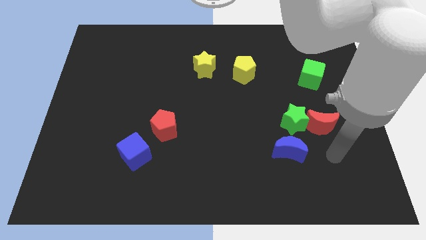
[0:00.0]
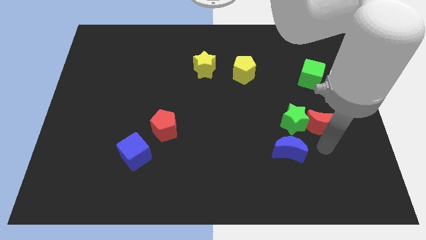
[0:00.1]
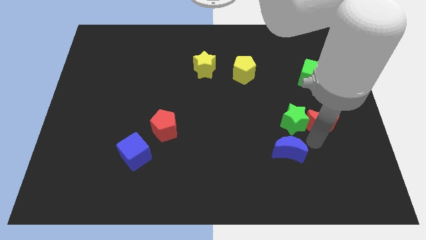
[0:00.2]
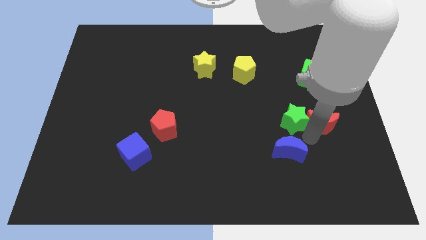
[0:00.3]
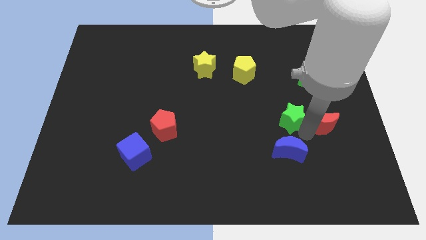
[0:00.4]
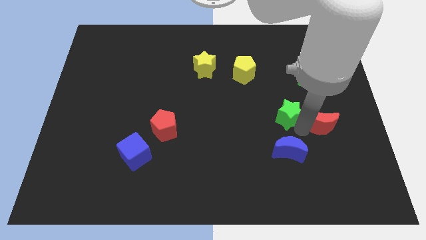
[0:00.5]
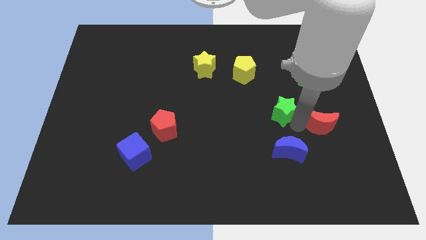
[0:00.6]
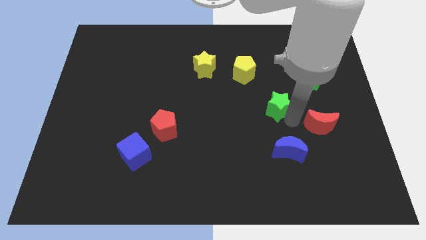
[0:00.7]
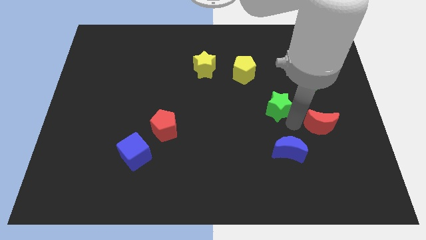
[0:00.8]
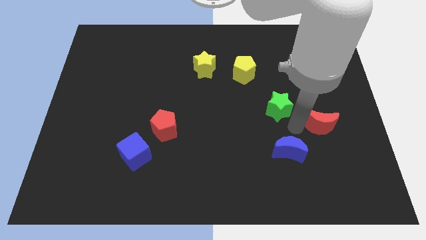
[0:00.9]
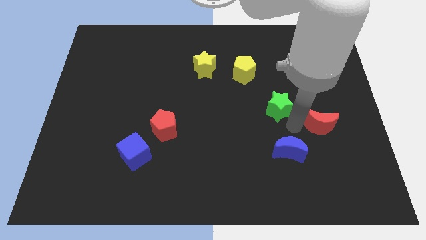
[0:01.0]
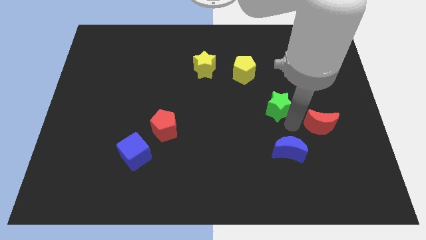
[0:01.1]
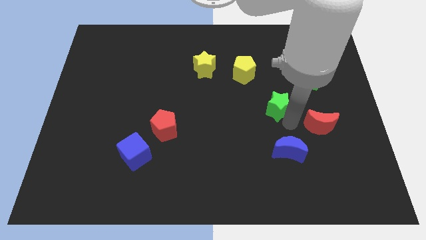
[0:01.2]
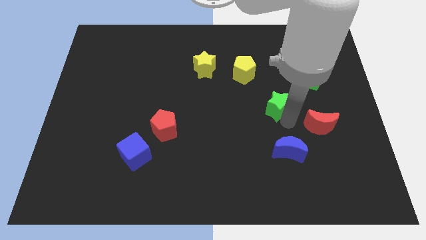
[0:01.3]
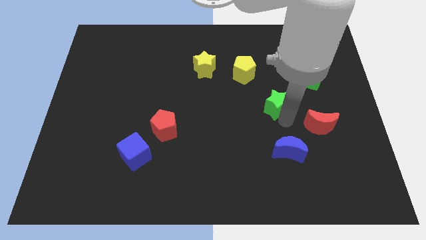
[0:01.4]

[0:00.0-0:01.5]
separate the green star from the red moon and blue moon

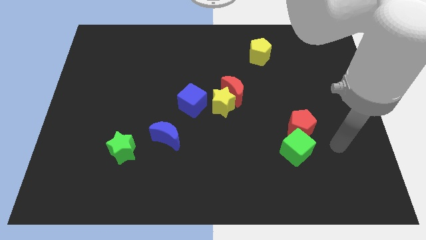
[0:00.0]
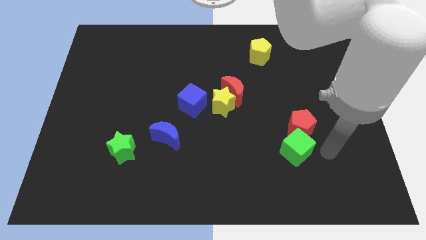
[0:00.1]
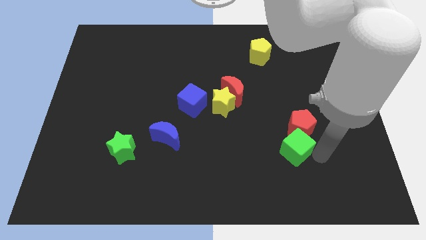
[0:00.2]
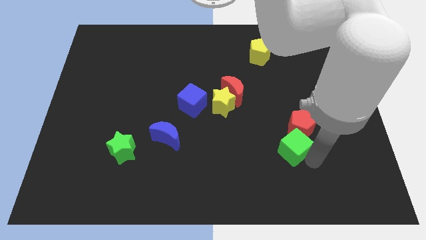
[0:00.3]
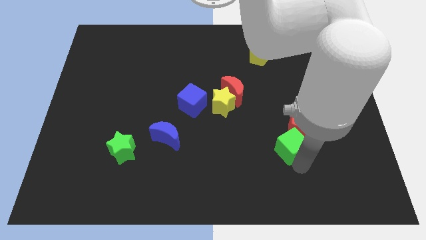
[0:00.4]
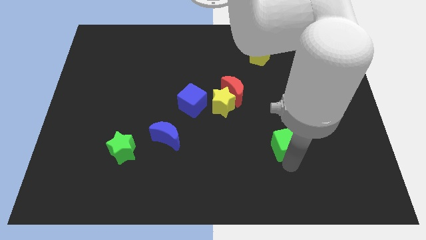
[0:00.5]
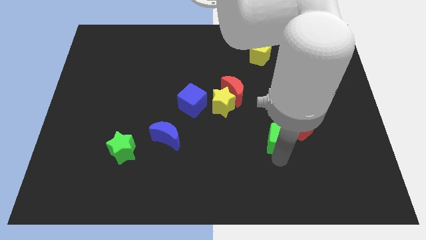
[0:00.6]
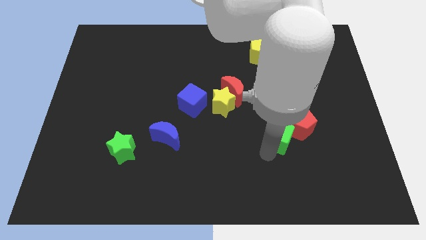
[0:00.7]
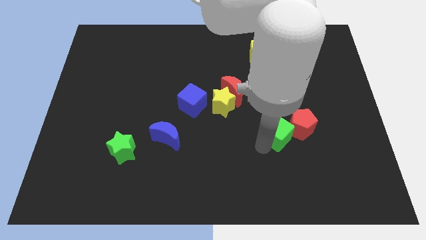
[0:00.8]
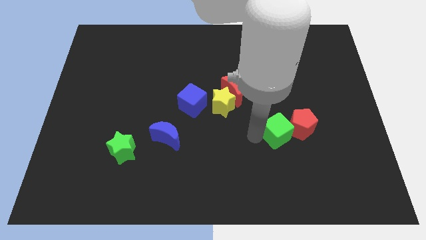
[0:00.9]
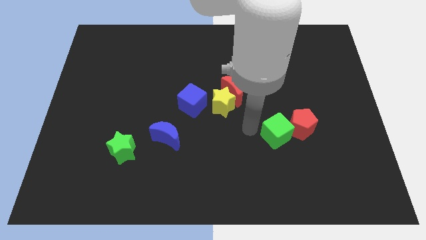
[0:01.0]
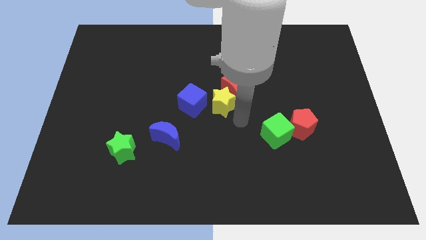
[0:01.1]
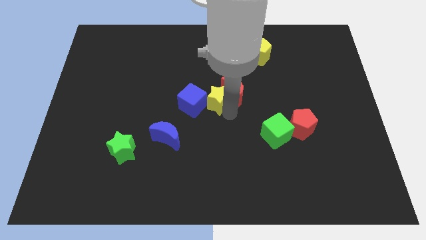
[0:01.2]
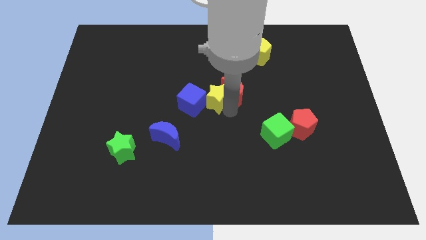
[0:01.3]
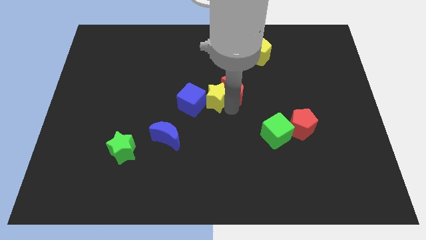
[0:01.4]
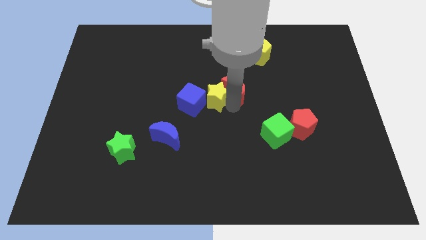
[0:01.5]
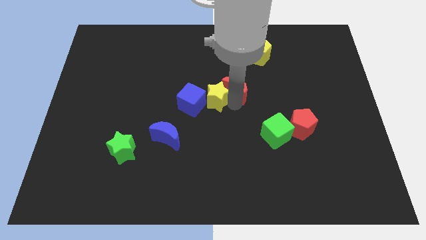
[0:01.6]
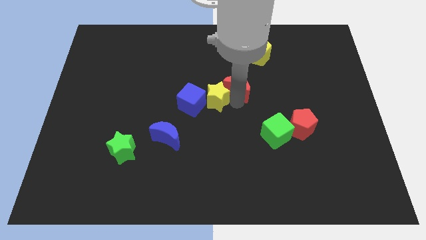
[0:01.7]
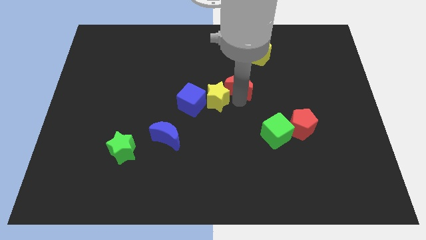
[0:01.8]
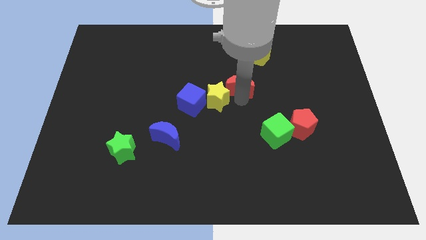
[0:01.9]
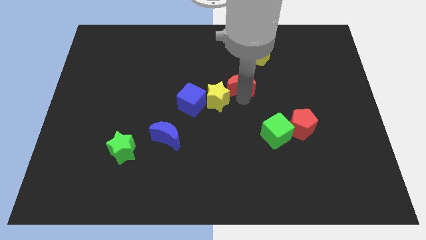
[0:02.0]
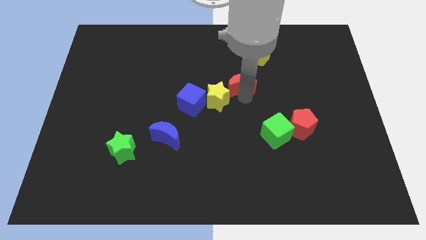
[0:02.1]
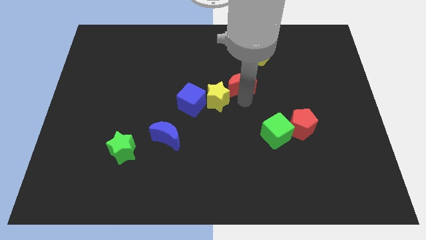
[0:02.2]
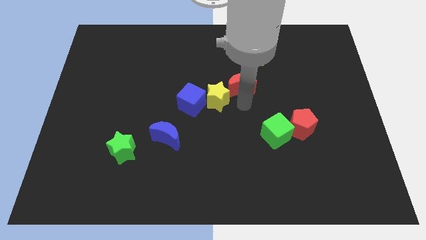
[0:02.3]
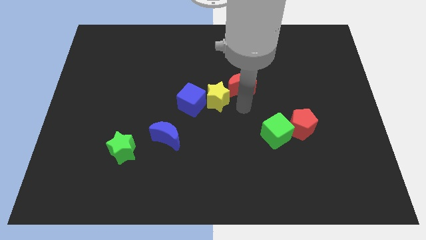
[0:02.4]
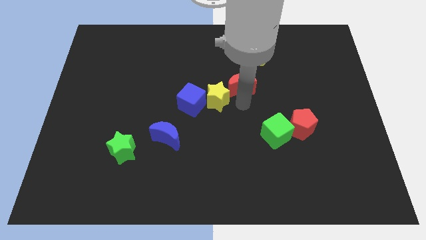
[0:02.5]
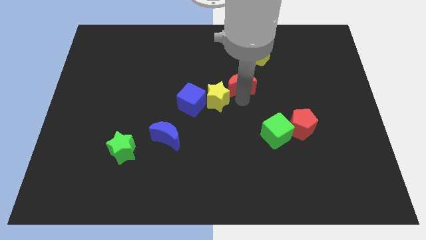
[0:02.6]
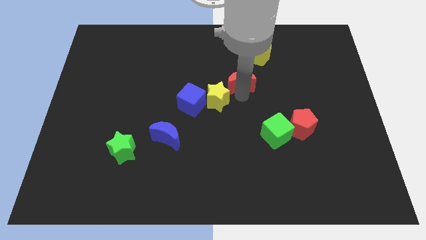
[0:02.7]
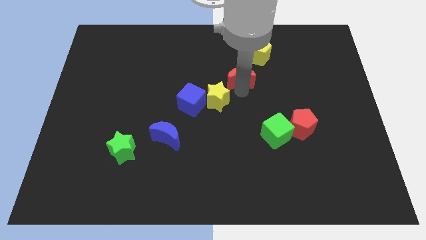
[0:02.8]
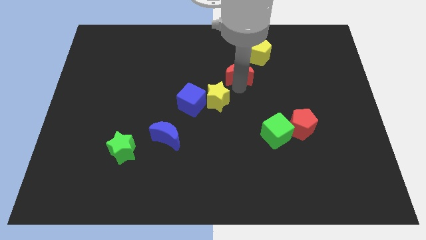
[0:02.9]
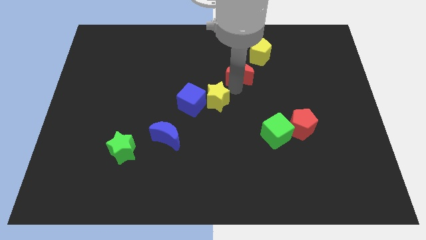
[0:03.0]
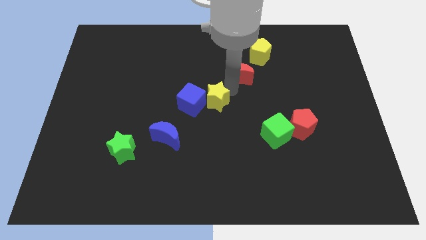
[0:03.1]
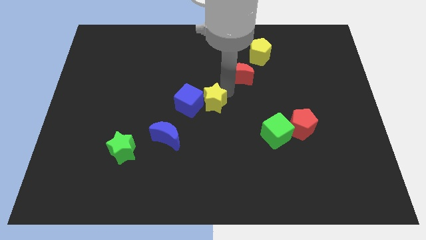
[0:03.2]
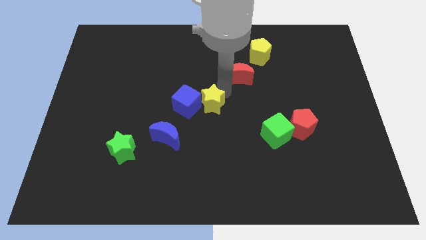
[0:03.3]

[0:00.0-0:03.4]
move the red moon away from the yellow star

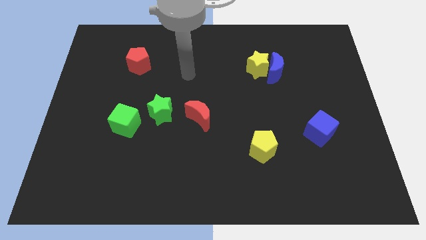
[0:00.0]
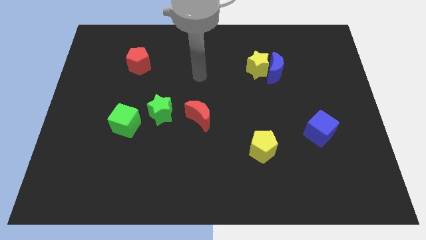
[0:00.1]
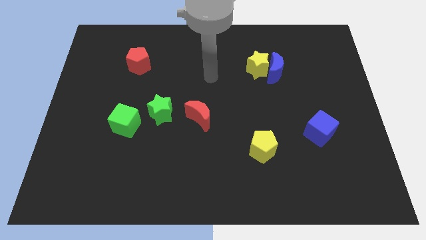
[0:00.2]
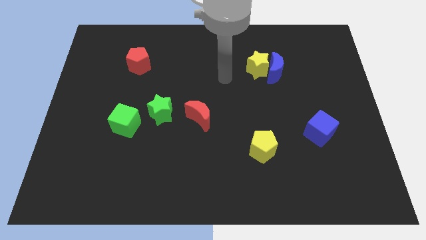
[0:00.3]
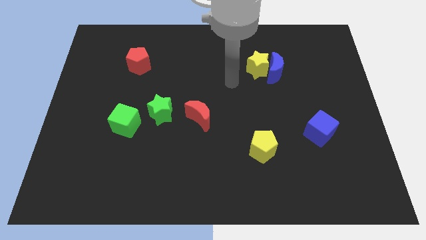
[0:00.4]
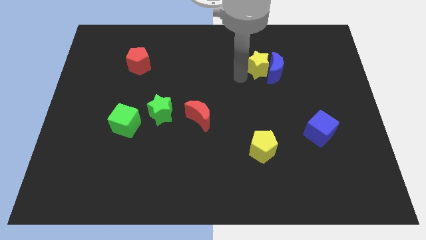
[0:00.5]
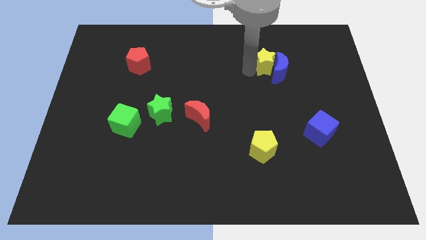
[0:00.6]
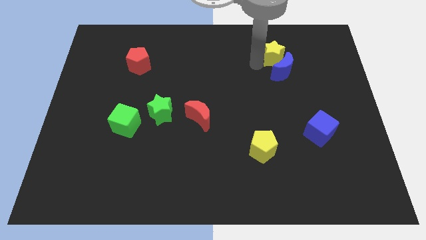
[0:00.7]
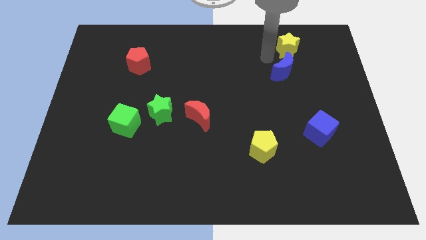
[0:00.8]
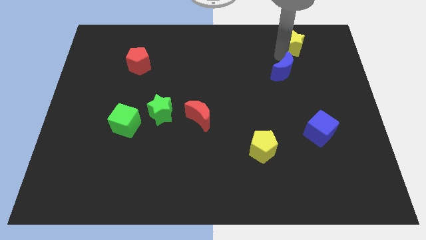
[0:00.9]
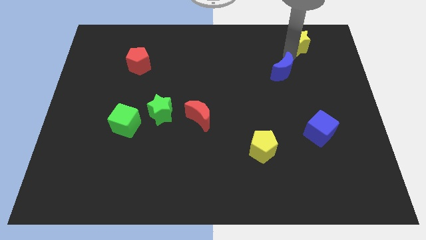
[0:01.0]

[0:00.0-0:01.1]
move the blue moon away from the yellow star

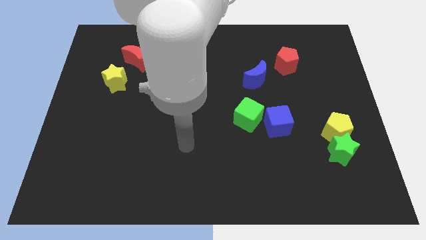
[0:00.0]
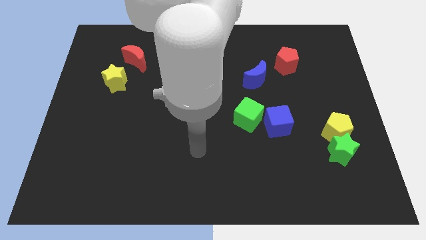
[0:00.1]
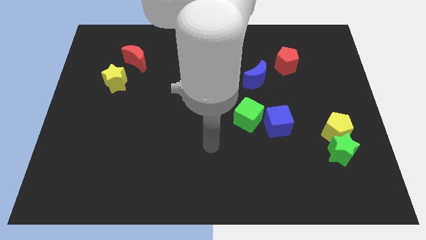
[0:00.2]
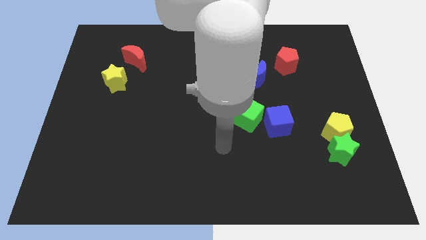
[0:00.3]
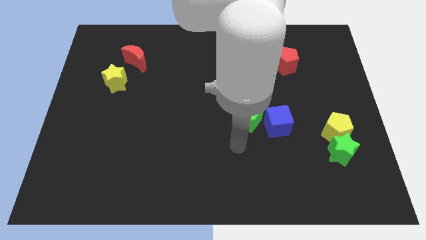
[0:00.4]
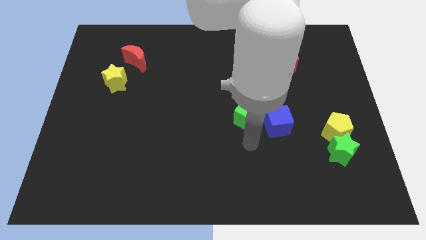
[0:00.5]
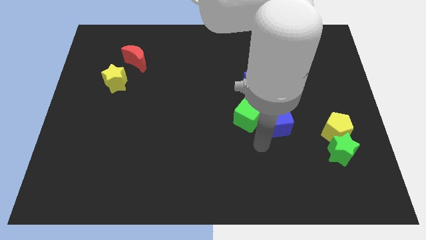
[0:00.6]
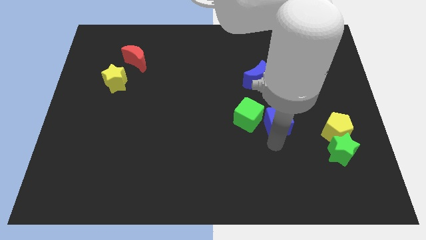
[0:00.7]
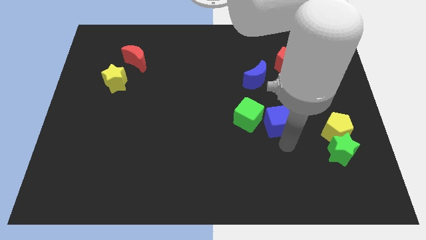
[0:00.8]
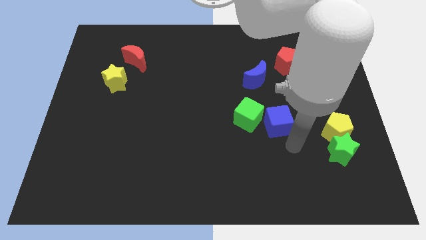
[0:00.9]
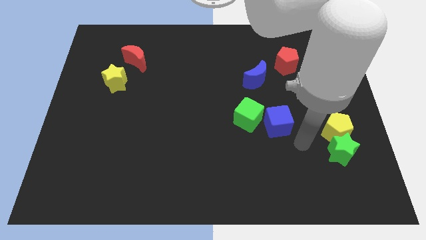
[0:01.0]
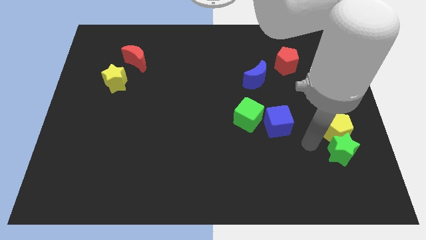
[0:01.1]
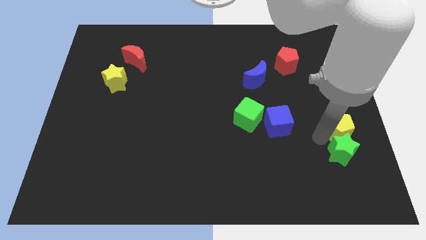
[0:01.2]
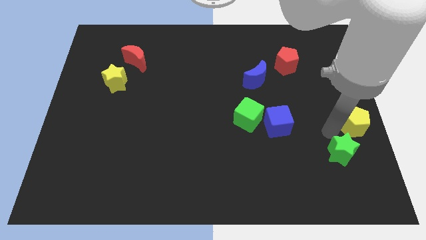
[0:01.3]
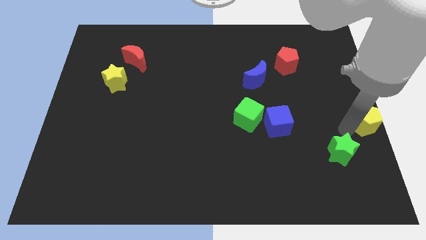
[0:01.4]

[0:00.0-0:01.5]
separate the green star from the yellow pentagon

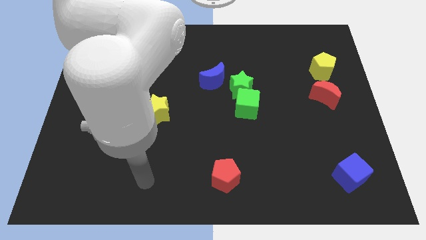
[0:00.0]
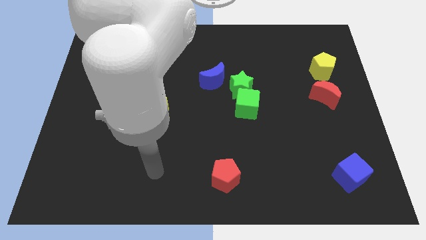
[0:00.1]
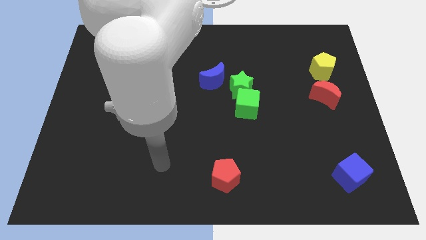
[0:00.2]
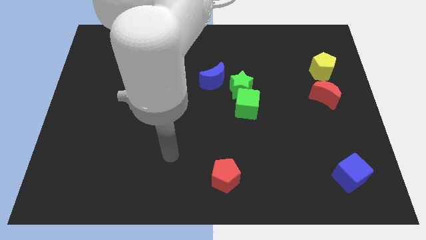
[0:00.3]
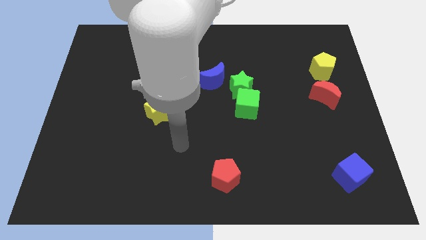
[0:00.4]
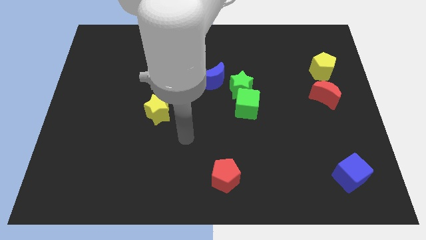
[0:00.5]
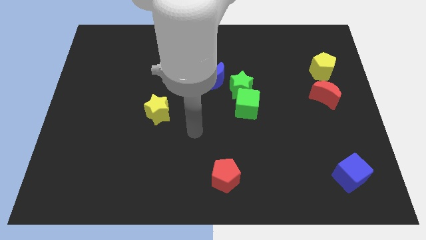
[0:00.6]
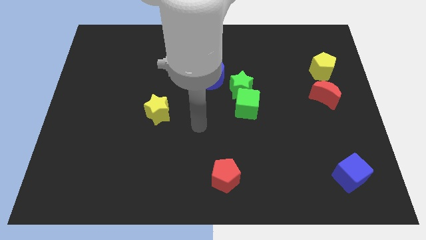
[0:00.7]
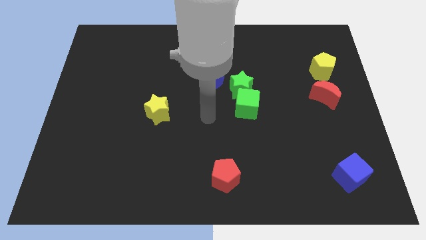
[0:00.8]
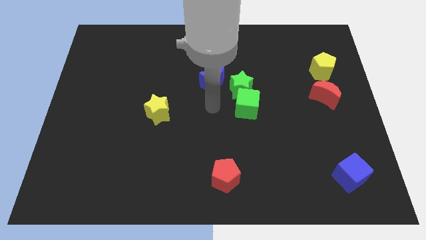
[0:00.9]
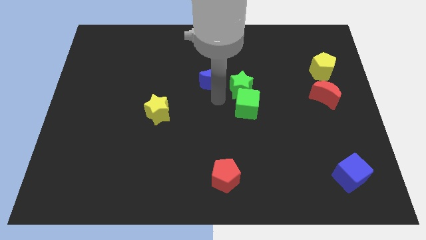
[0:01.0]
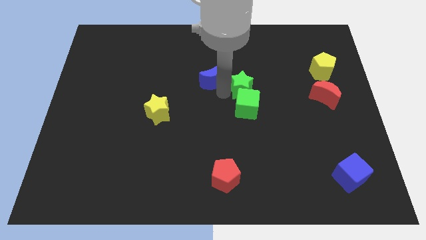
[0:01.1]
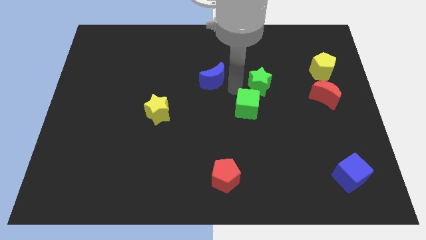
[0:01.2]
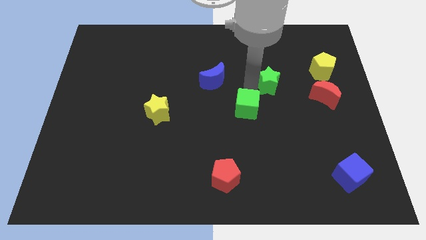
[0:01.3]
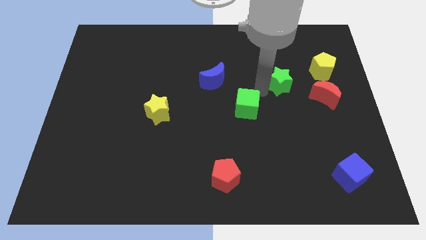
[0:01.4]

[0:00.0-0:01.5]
pull the green cube apart from the green star

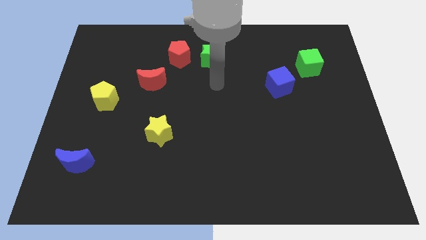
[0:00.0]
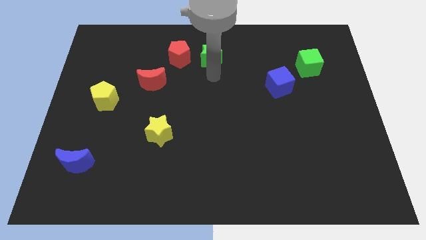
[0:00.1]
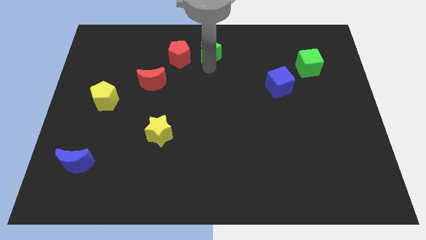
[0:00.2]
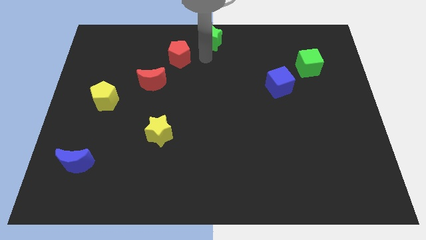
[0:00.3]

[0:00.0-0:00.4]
pull the red pentagon apart from the green star
